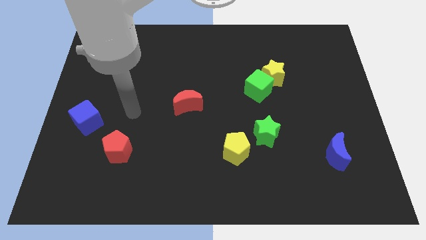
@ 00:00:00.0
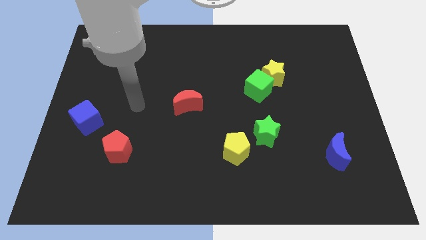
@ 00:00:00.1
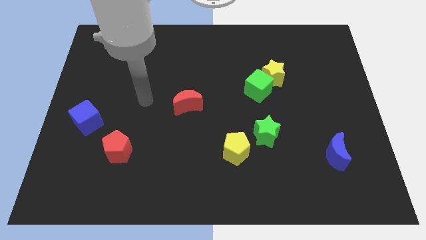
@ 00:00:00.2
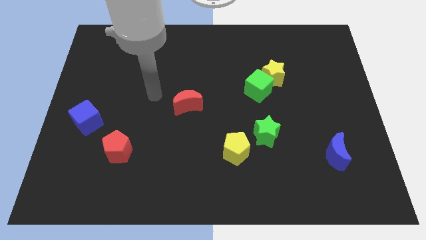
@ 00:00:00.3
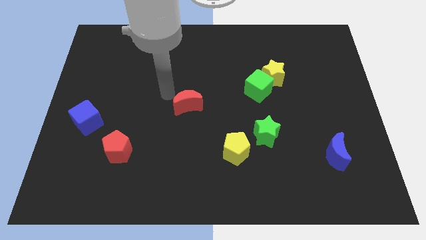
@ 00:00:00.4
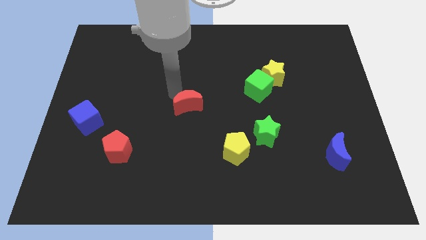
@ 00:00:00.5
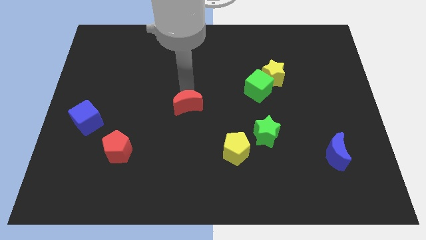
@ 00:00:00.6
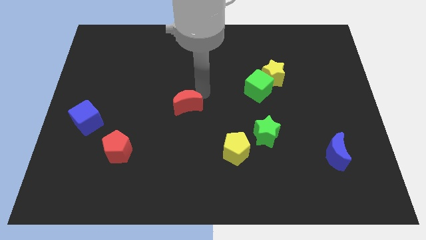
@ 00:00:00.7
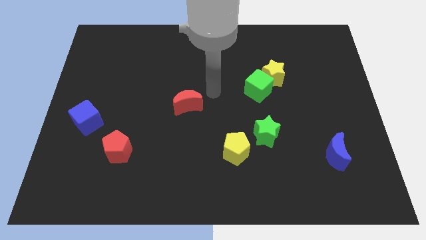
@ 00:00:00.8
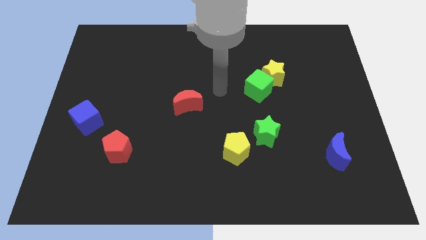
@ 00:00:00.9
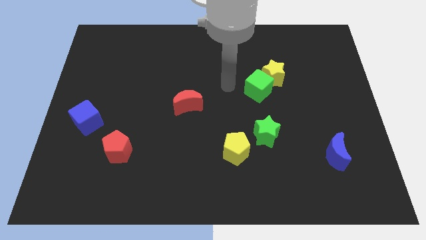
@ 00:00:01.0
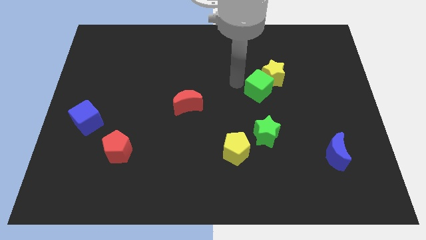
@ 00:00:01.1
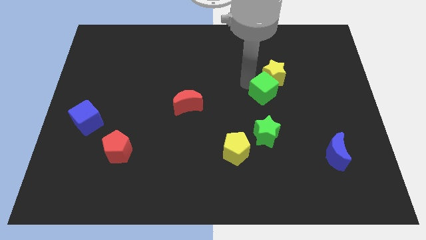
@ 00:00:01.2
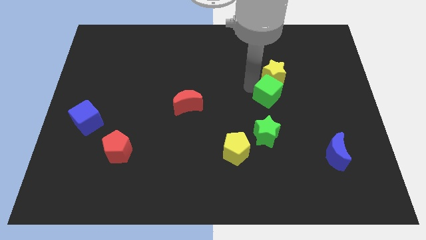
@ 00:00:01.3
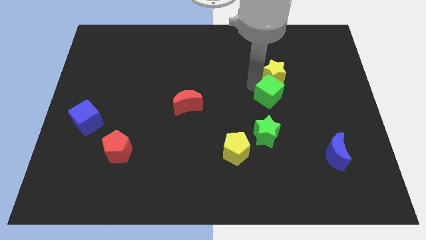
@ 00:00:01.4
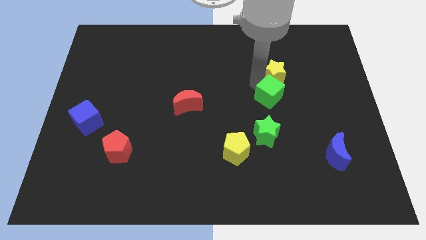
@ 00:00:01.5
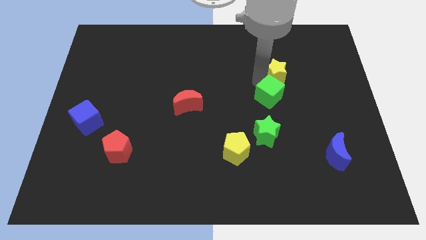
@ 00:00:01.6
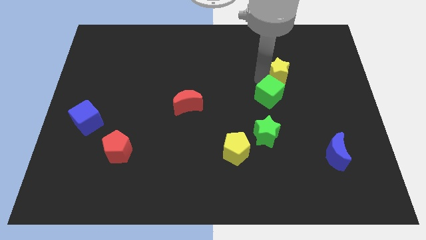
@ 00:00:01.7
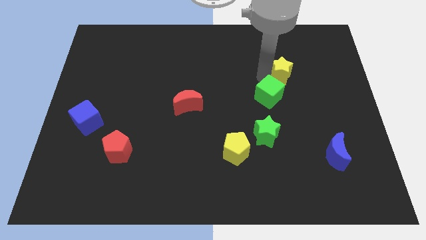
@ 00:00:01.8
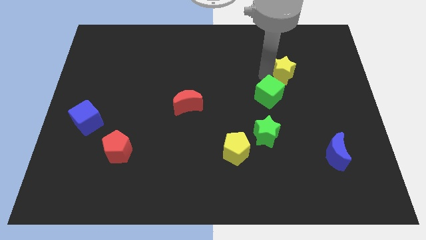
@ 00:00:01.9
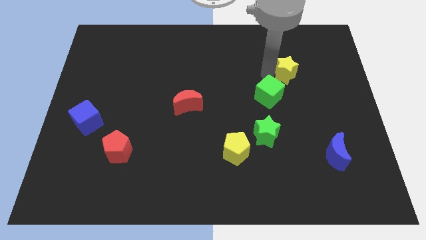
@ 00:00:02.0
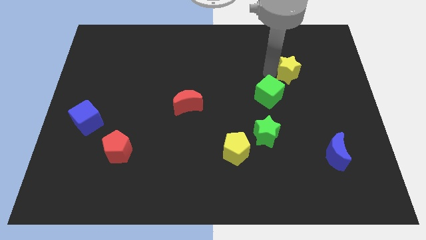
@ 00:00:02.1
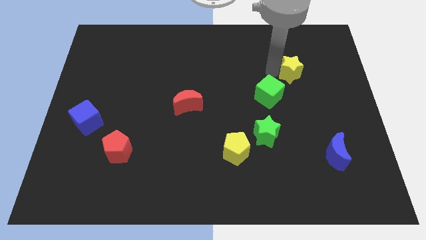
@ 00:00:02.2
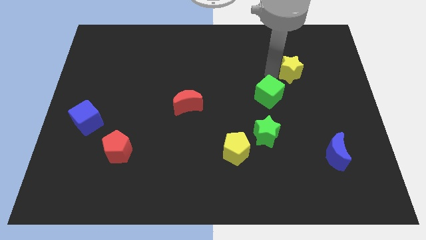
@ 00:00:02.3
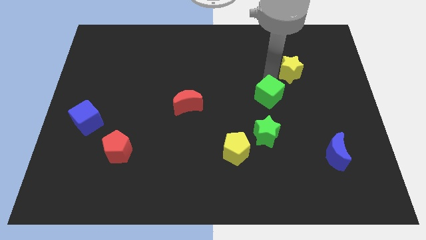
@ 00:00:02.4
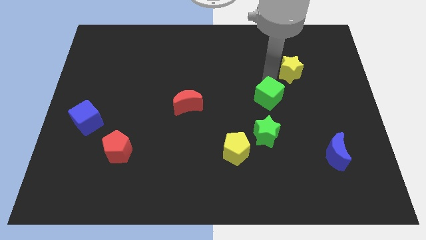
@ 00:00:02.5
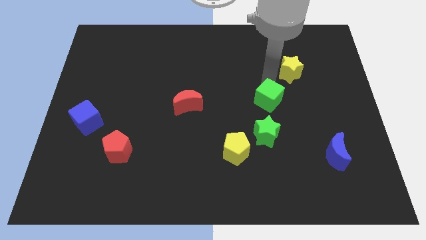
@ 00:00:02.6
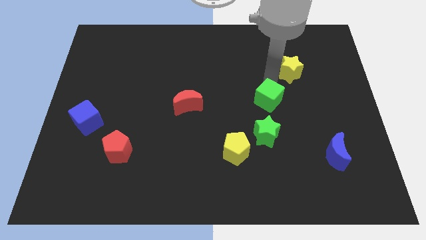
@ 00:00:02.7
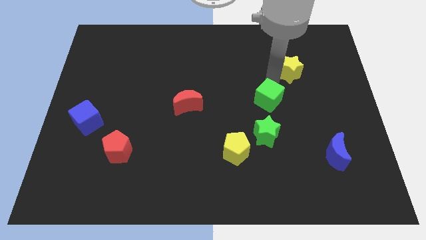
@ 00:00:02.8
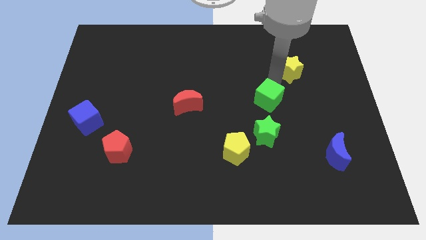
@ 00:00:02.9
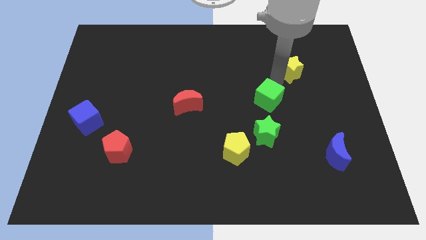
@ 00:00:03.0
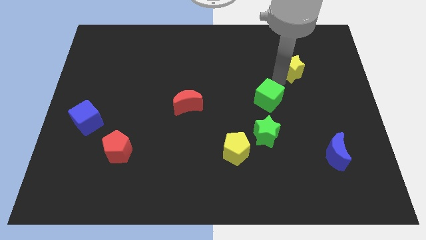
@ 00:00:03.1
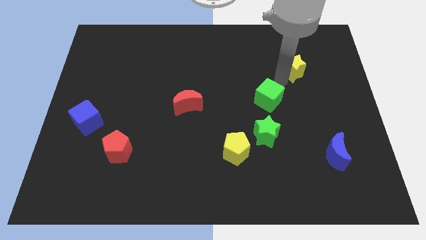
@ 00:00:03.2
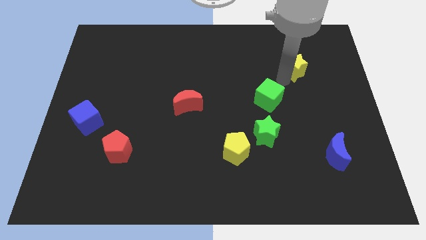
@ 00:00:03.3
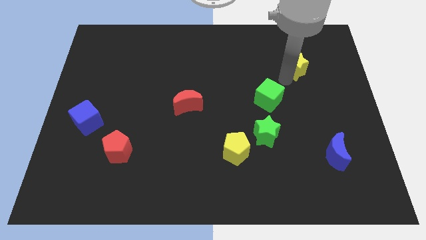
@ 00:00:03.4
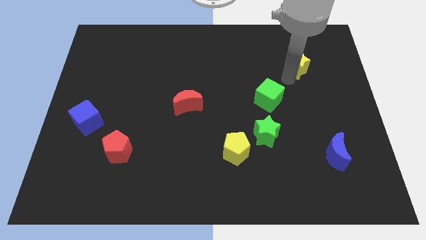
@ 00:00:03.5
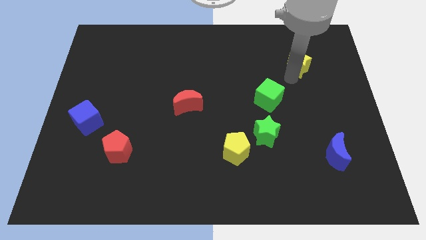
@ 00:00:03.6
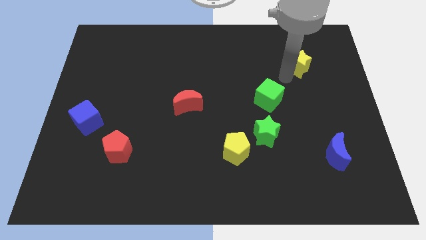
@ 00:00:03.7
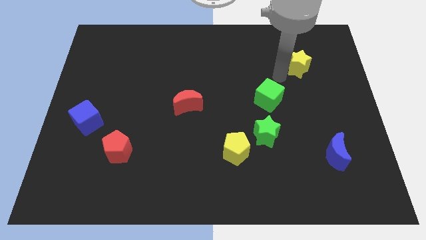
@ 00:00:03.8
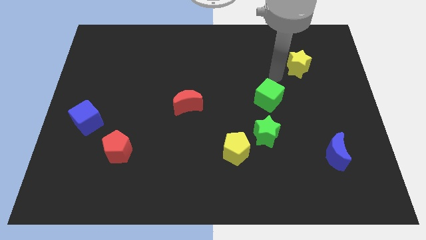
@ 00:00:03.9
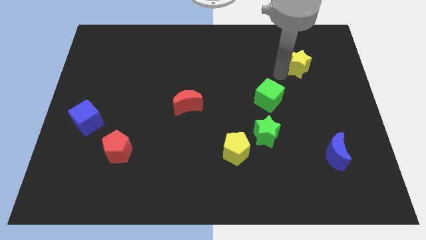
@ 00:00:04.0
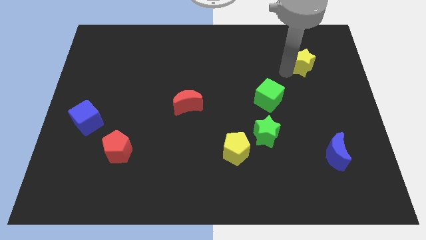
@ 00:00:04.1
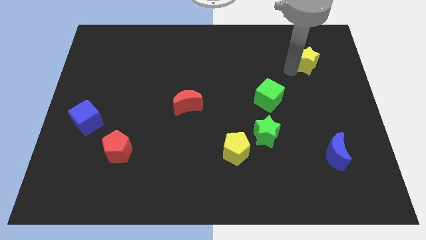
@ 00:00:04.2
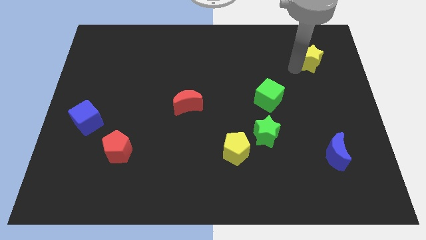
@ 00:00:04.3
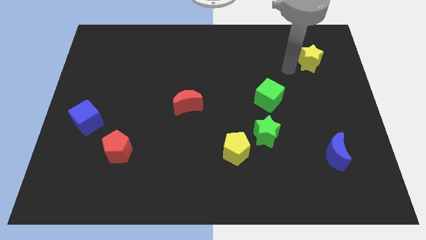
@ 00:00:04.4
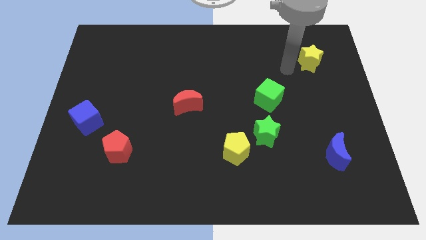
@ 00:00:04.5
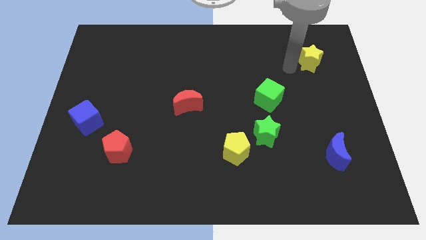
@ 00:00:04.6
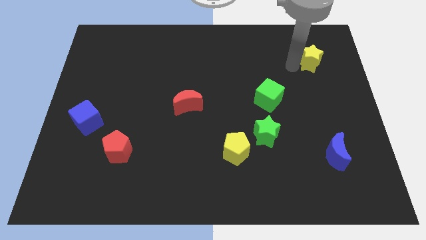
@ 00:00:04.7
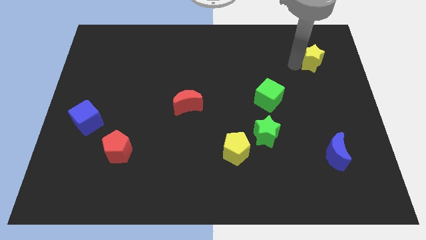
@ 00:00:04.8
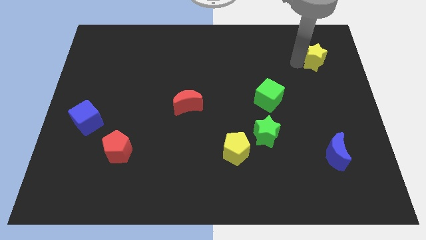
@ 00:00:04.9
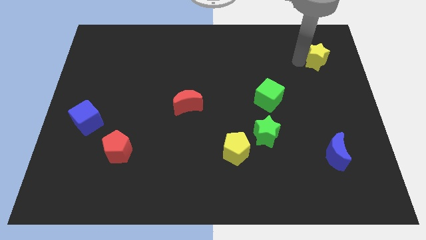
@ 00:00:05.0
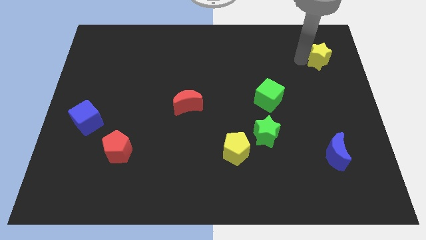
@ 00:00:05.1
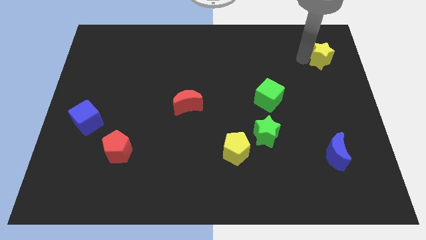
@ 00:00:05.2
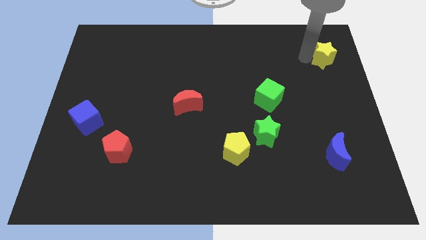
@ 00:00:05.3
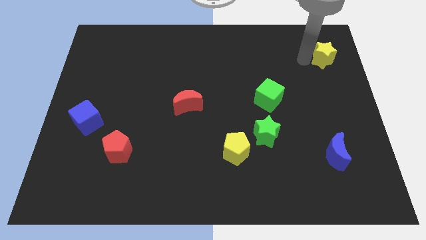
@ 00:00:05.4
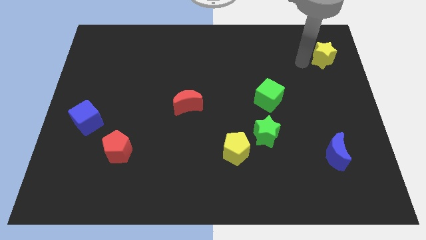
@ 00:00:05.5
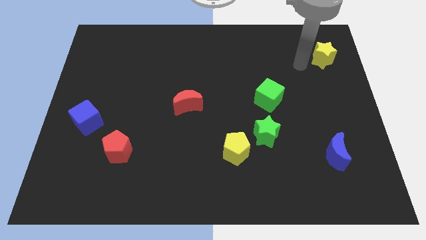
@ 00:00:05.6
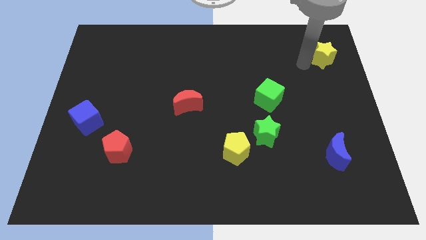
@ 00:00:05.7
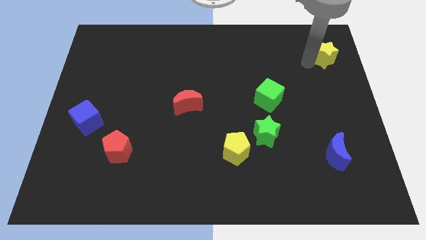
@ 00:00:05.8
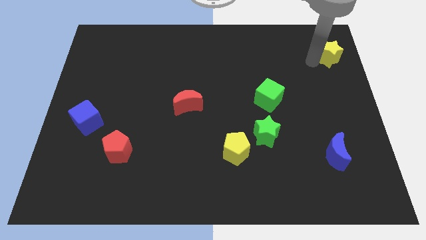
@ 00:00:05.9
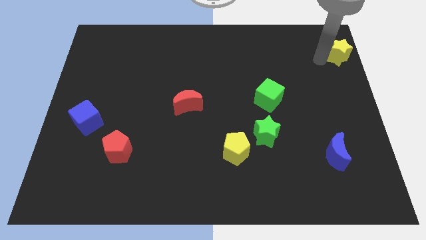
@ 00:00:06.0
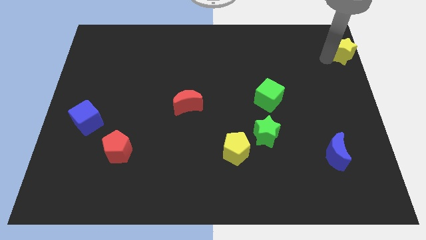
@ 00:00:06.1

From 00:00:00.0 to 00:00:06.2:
slide the yellow star to the upper right corner

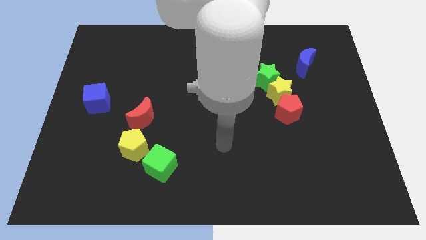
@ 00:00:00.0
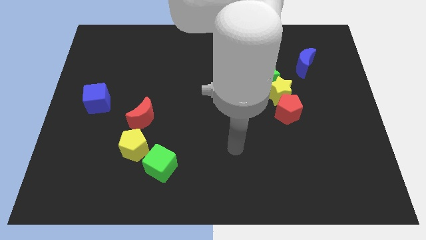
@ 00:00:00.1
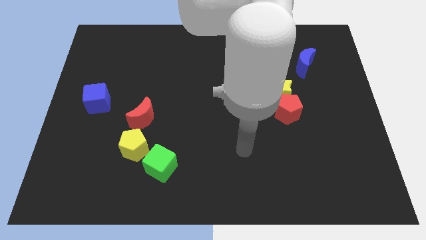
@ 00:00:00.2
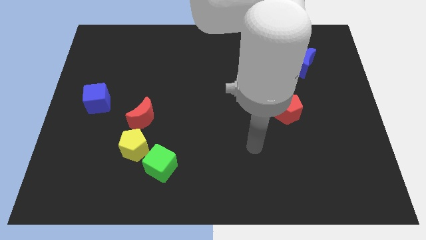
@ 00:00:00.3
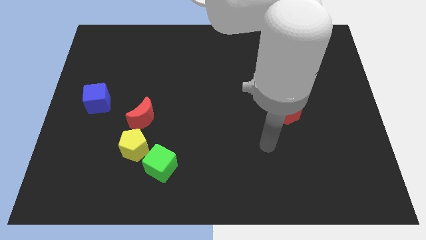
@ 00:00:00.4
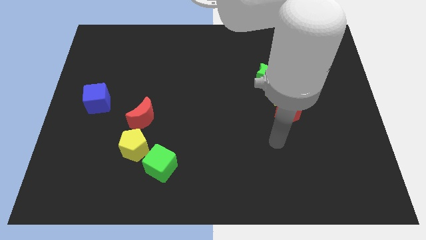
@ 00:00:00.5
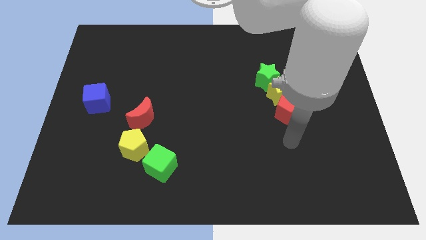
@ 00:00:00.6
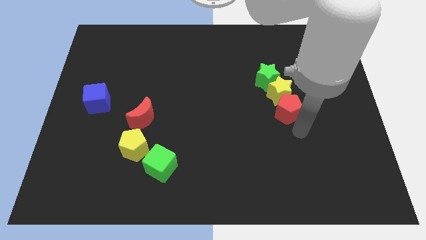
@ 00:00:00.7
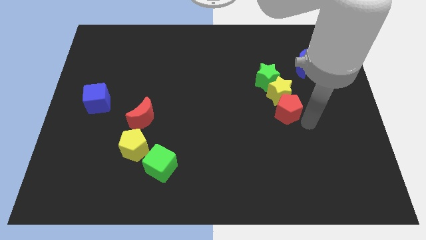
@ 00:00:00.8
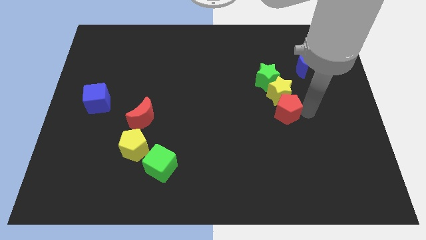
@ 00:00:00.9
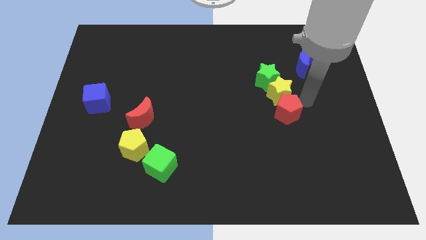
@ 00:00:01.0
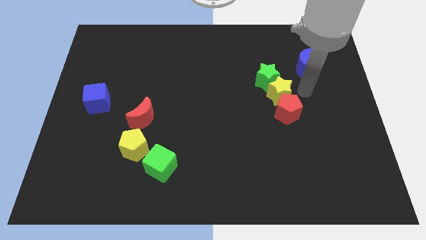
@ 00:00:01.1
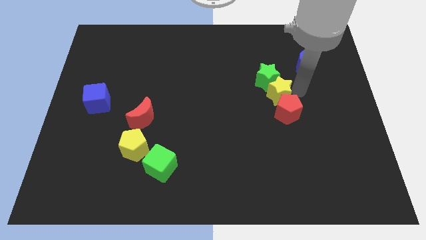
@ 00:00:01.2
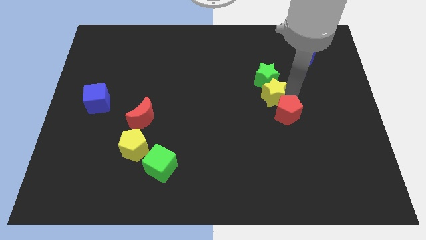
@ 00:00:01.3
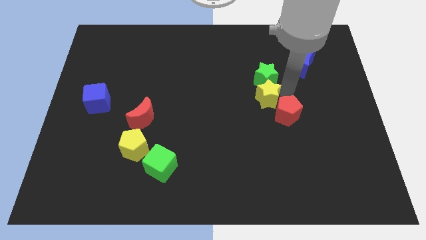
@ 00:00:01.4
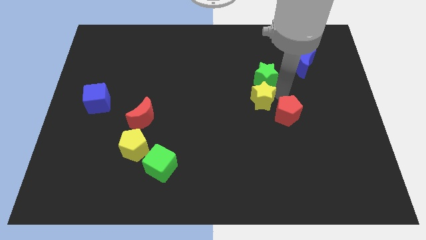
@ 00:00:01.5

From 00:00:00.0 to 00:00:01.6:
push the yellow star to the middle of the board
